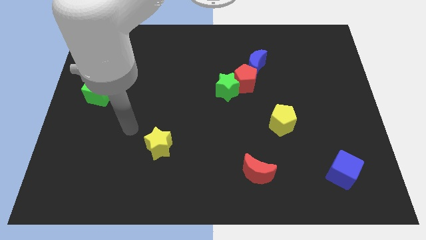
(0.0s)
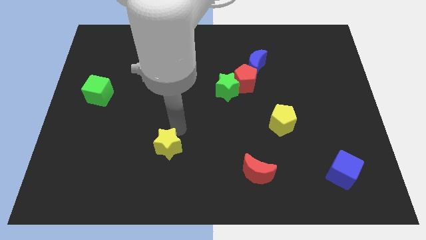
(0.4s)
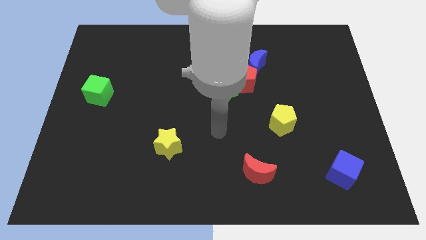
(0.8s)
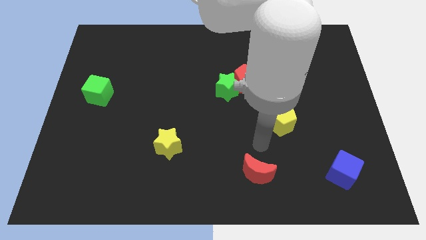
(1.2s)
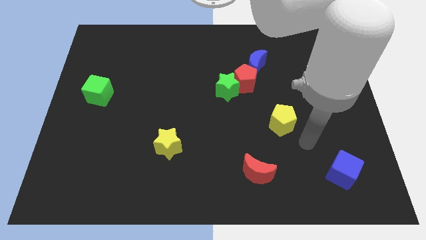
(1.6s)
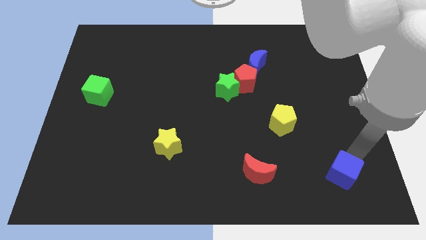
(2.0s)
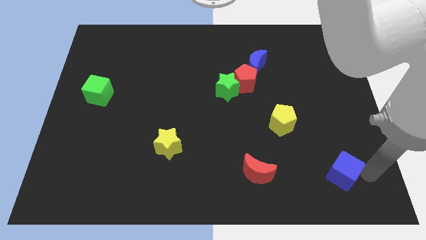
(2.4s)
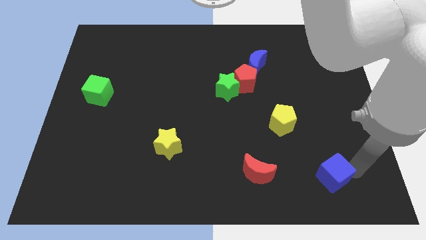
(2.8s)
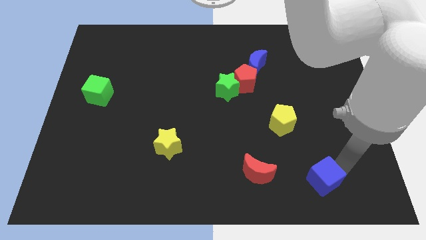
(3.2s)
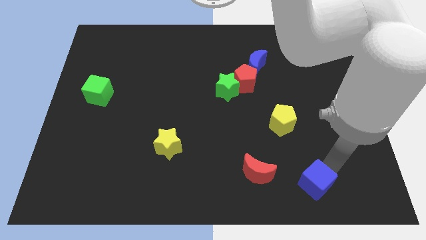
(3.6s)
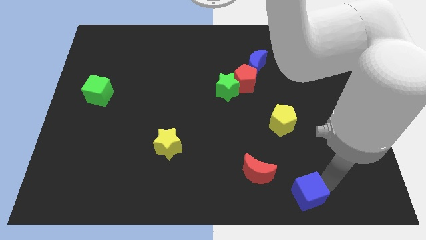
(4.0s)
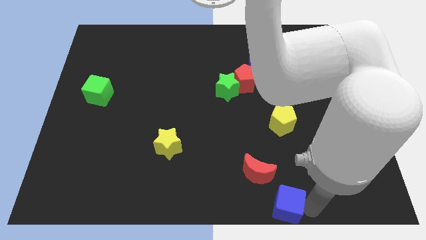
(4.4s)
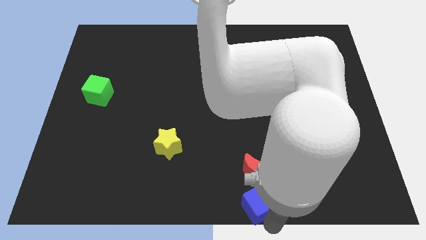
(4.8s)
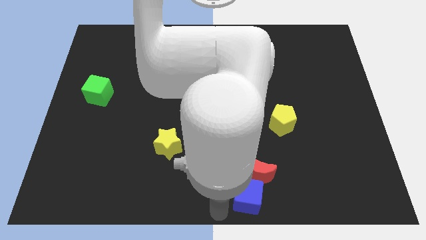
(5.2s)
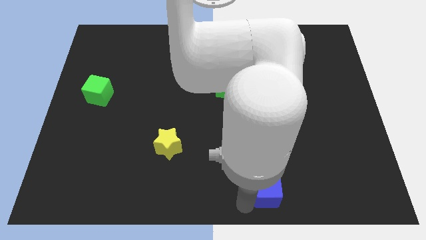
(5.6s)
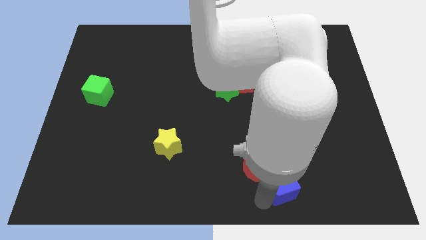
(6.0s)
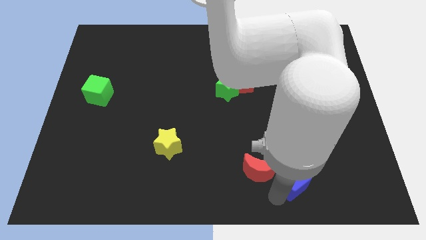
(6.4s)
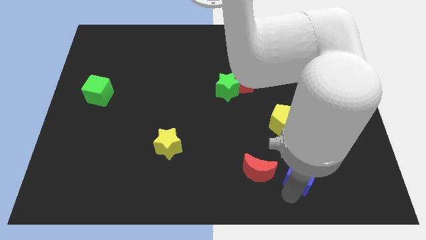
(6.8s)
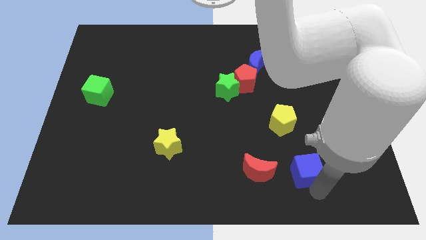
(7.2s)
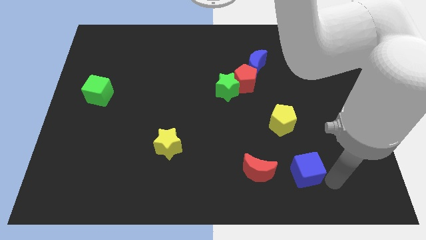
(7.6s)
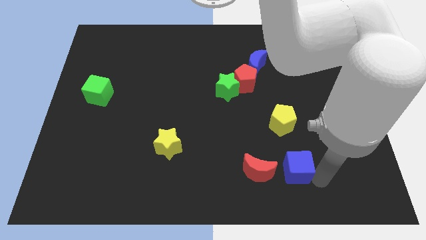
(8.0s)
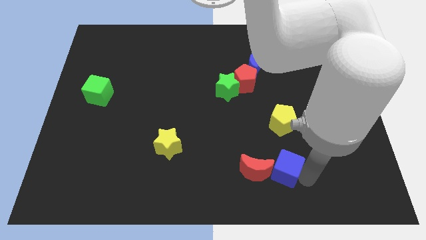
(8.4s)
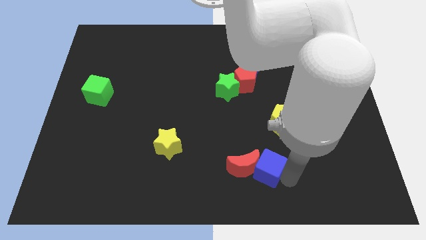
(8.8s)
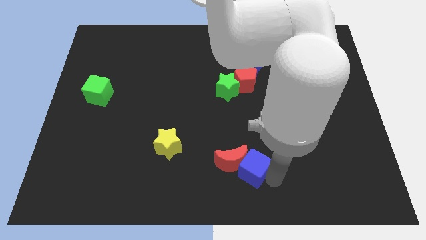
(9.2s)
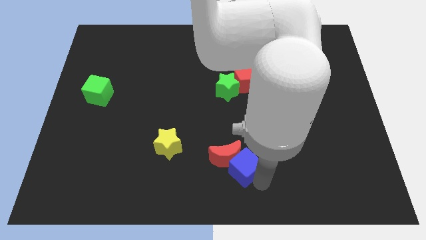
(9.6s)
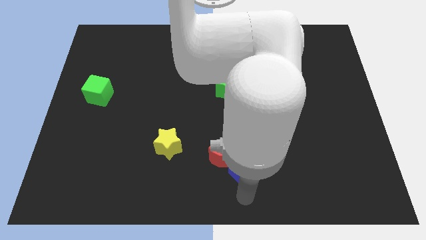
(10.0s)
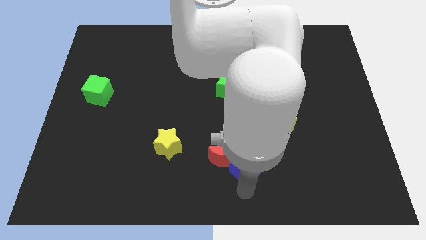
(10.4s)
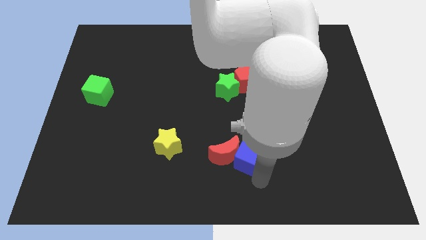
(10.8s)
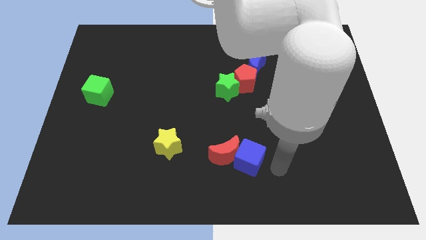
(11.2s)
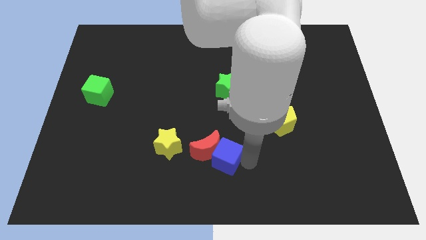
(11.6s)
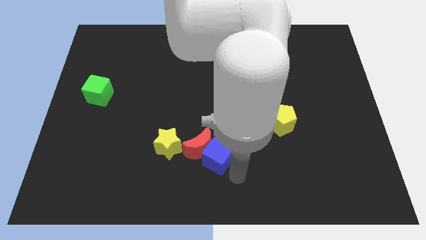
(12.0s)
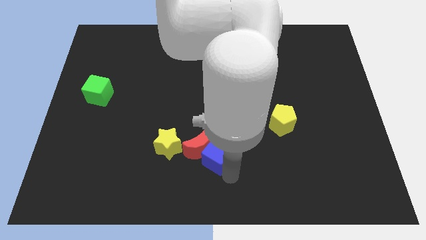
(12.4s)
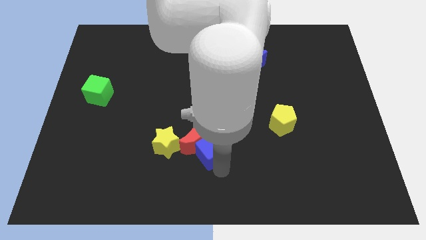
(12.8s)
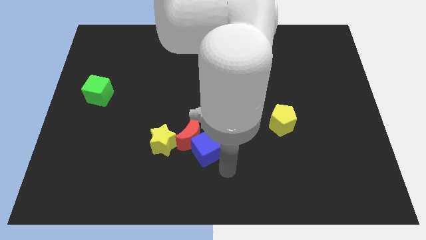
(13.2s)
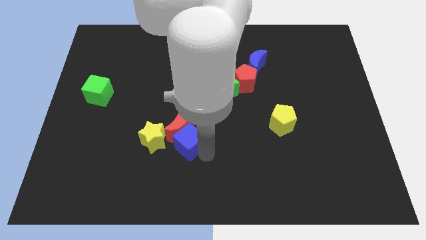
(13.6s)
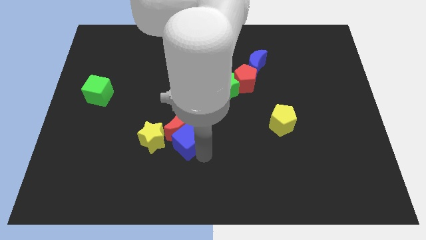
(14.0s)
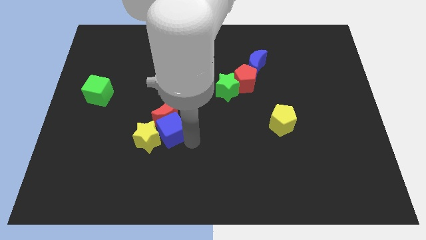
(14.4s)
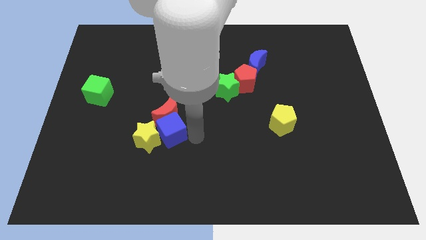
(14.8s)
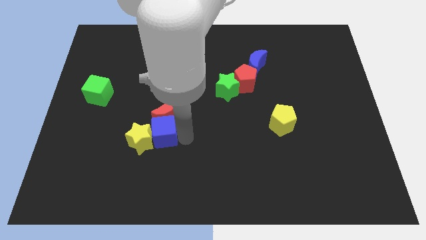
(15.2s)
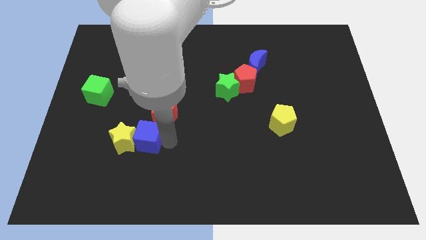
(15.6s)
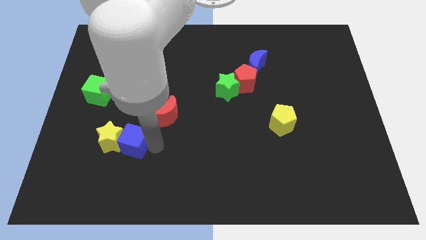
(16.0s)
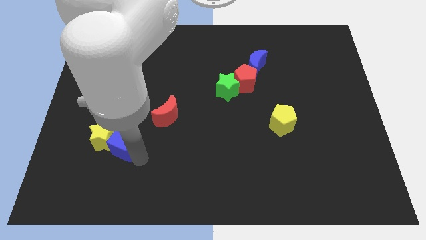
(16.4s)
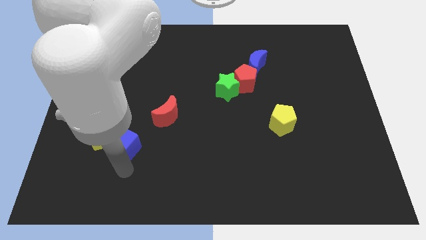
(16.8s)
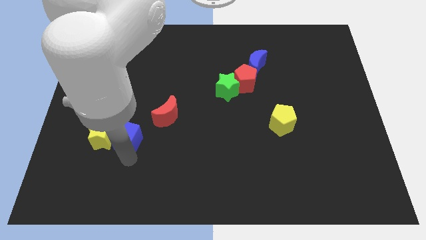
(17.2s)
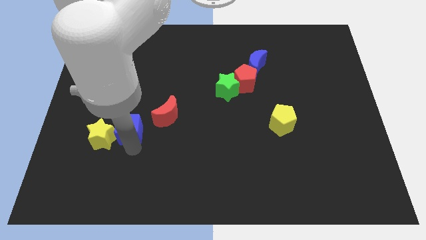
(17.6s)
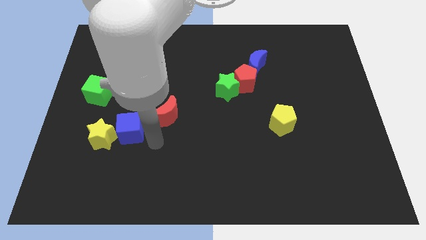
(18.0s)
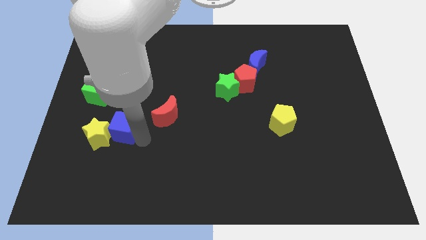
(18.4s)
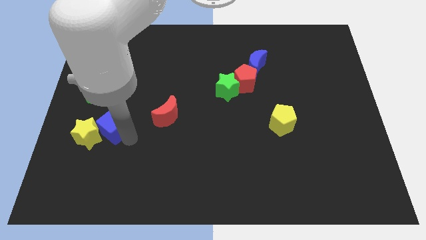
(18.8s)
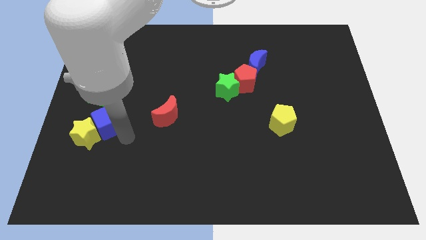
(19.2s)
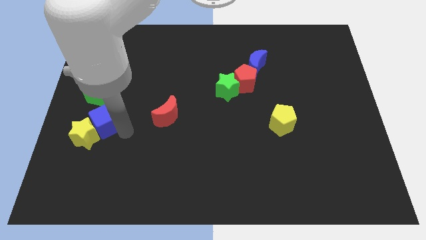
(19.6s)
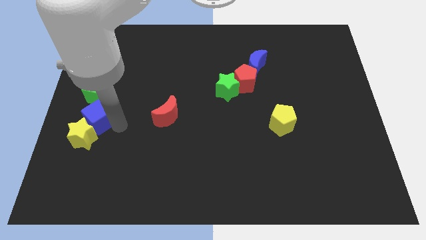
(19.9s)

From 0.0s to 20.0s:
put the blue cube to the center left

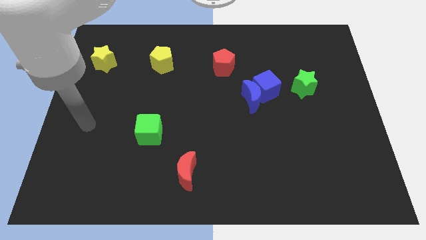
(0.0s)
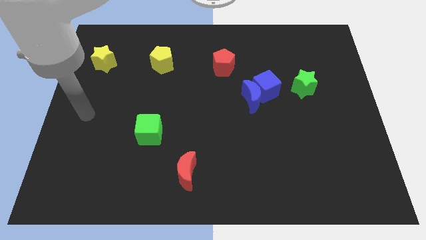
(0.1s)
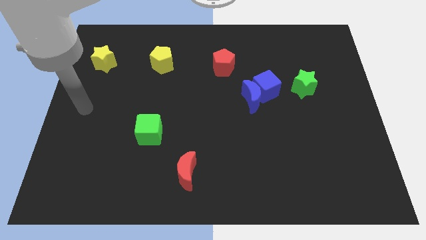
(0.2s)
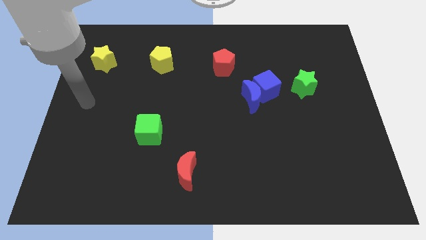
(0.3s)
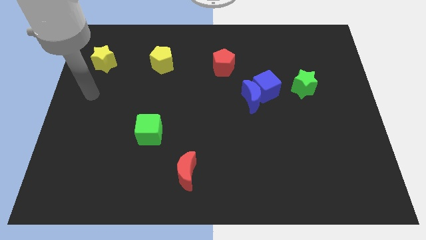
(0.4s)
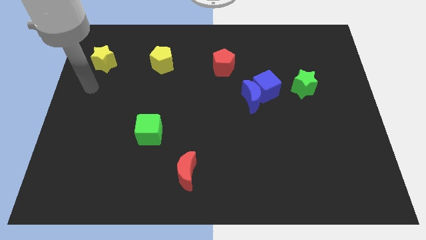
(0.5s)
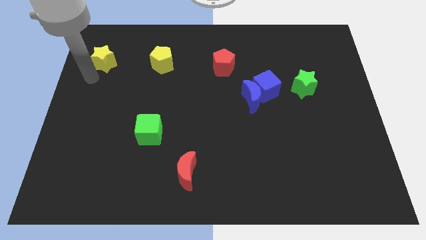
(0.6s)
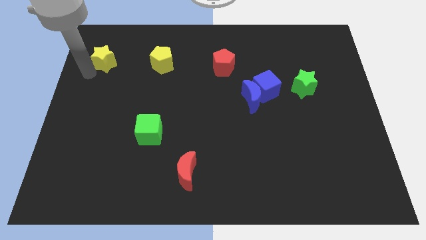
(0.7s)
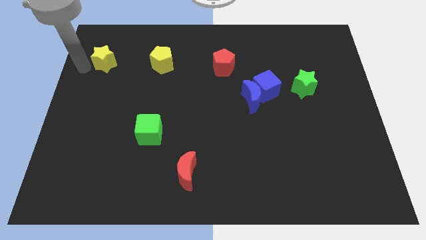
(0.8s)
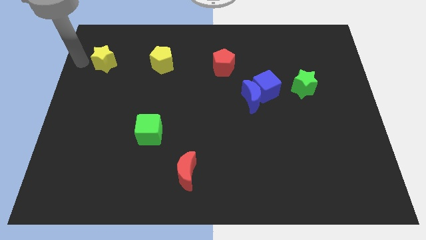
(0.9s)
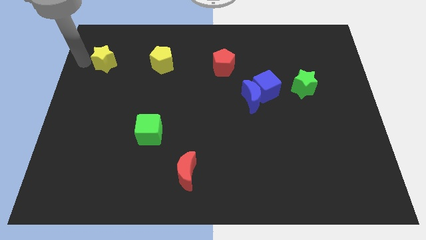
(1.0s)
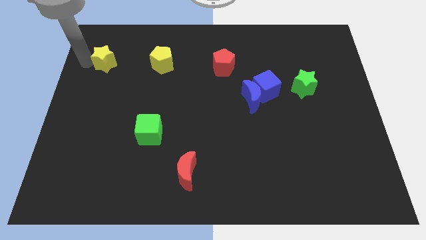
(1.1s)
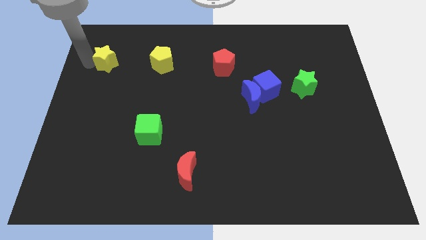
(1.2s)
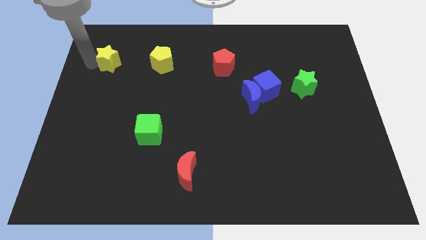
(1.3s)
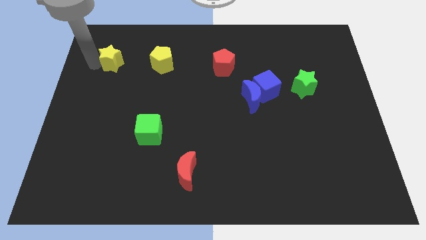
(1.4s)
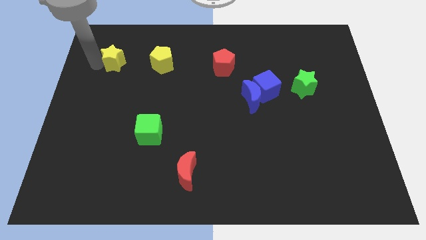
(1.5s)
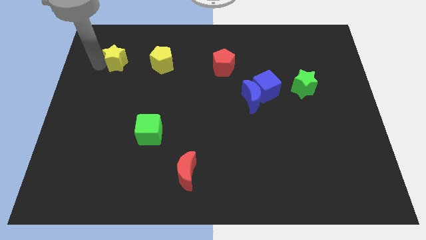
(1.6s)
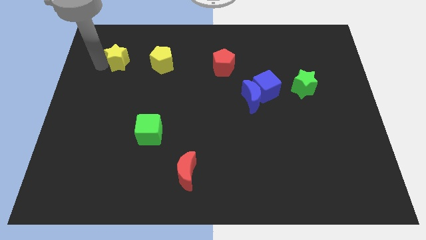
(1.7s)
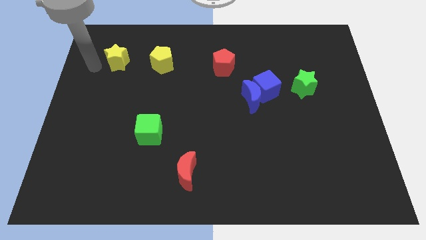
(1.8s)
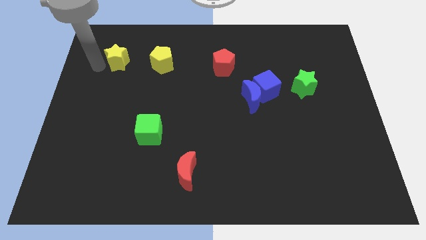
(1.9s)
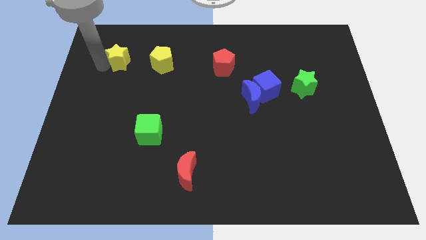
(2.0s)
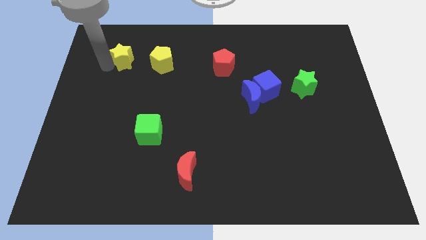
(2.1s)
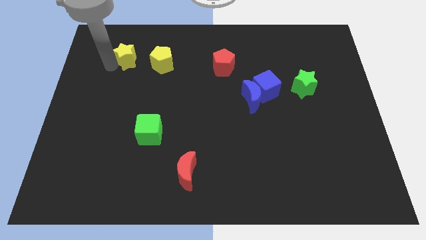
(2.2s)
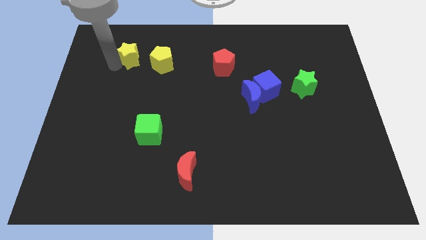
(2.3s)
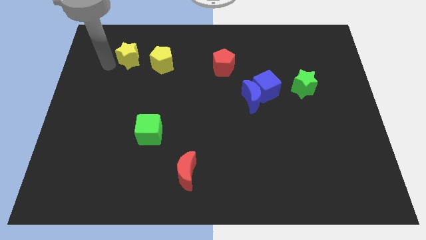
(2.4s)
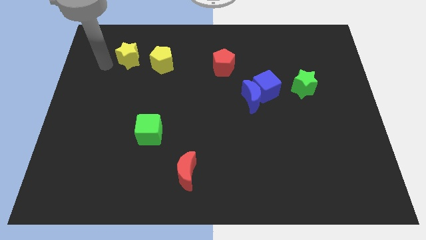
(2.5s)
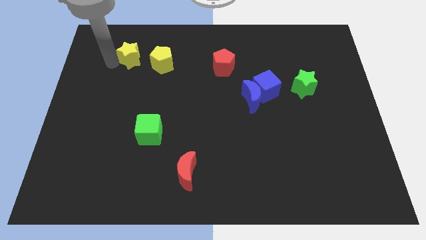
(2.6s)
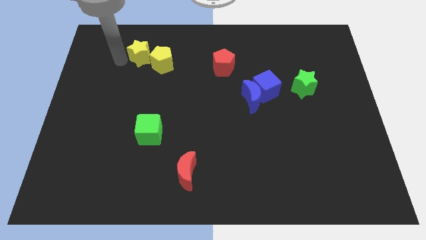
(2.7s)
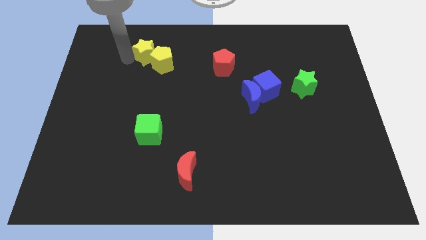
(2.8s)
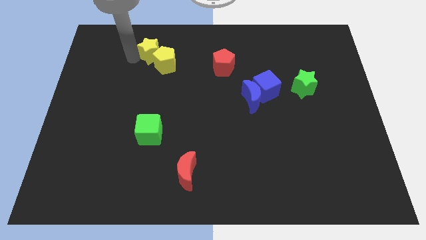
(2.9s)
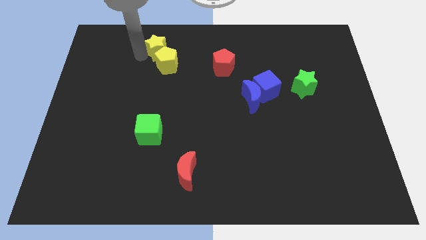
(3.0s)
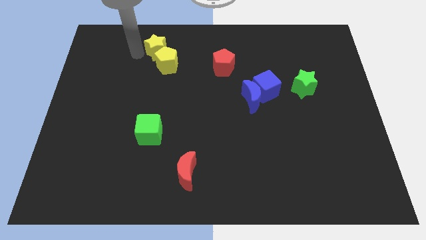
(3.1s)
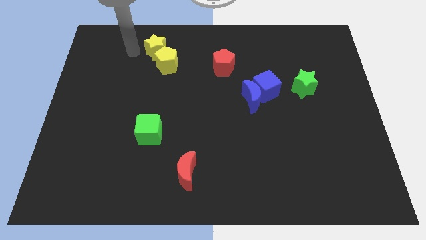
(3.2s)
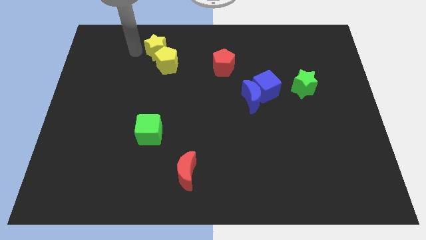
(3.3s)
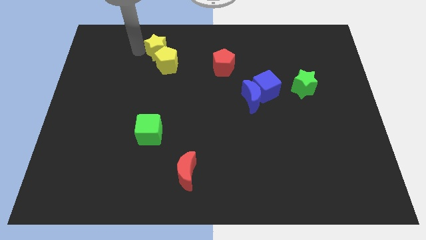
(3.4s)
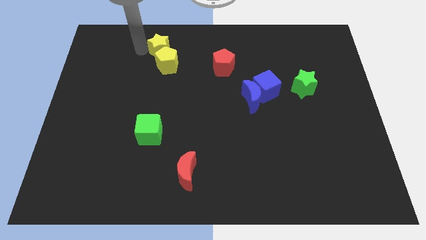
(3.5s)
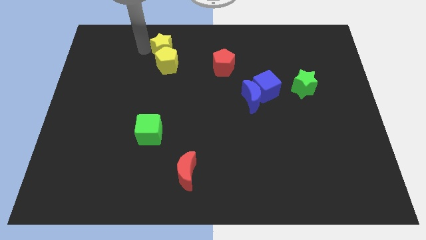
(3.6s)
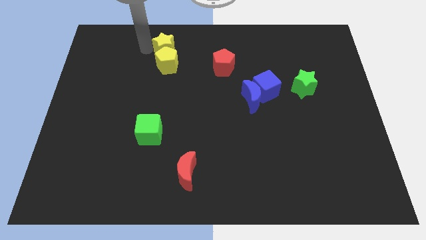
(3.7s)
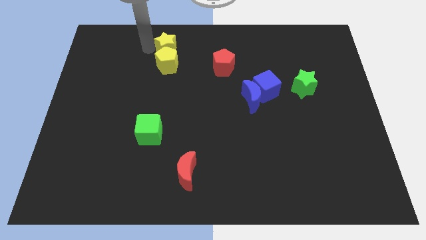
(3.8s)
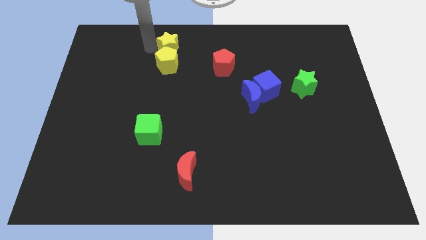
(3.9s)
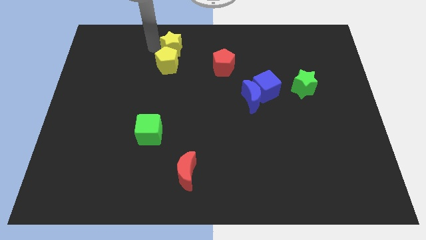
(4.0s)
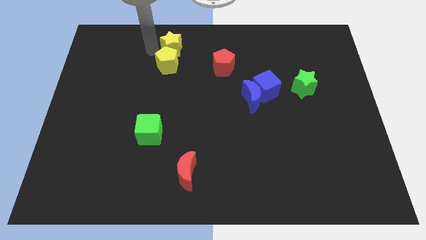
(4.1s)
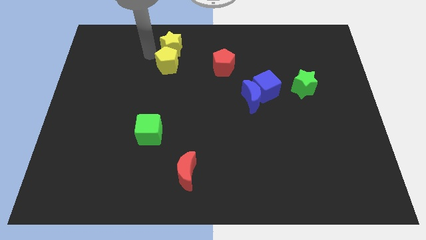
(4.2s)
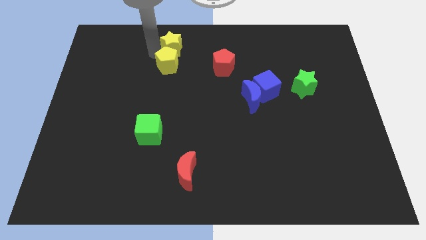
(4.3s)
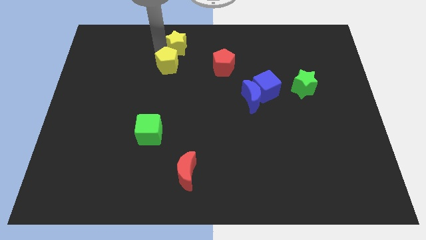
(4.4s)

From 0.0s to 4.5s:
push the yellow star to the top side
